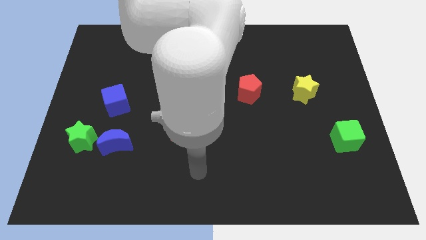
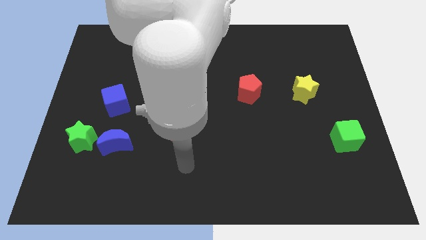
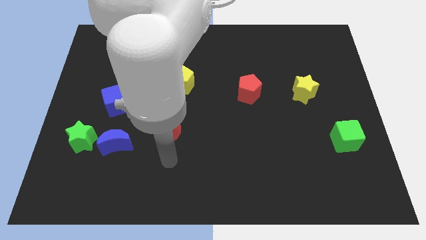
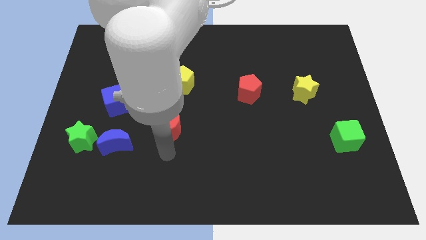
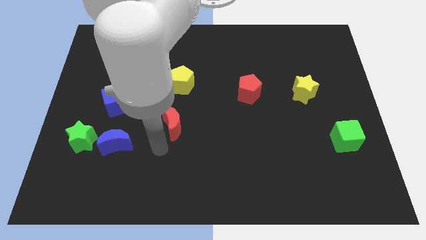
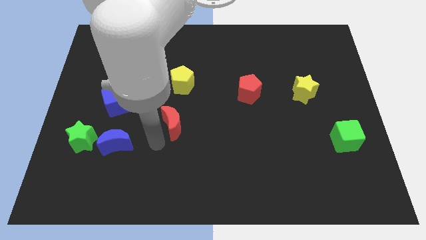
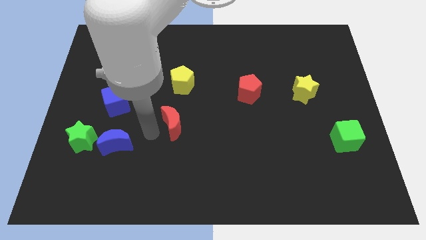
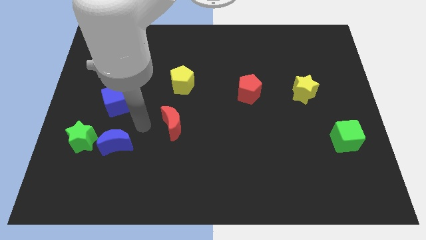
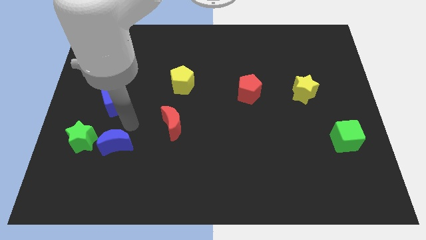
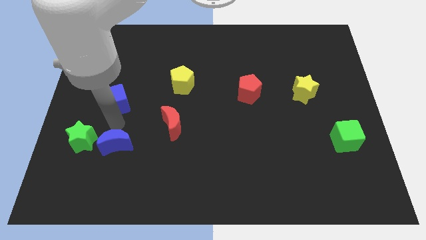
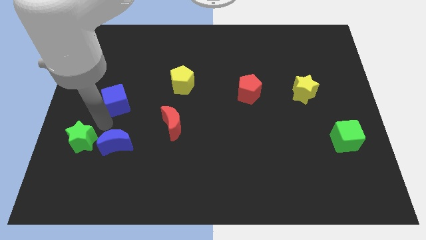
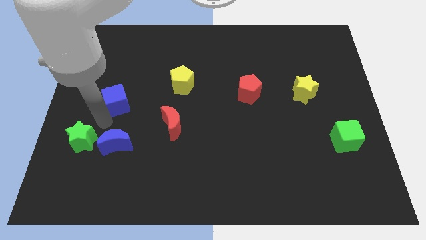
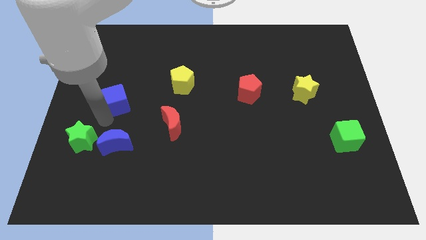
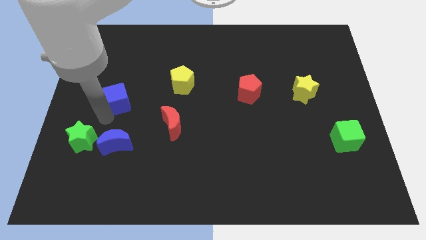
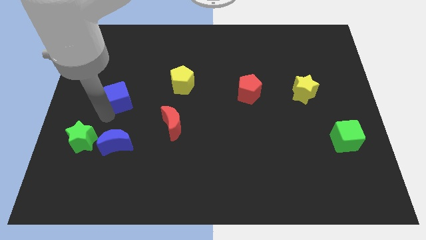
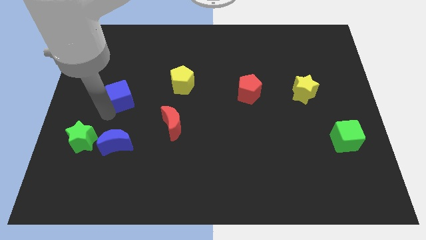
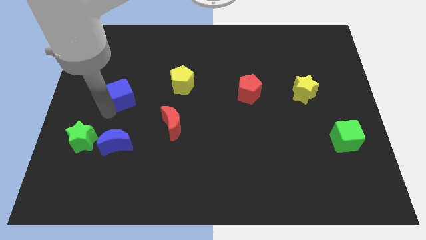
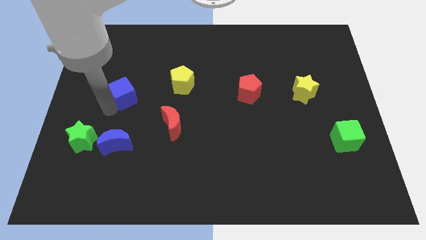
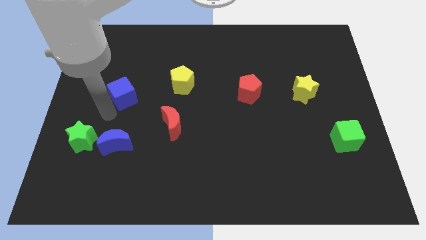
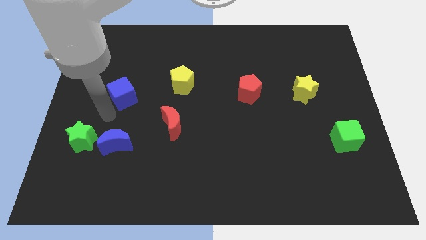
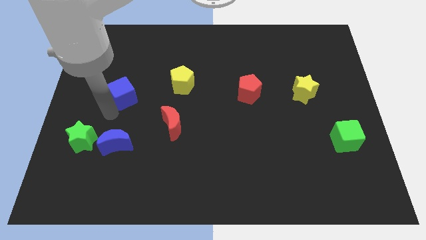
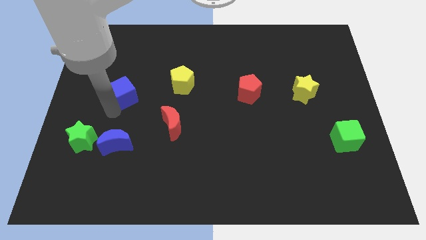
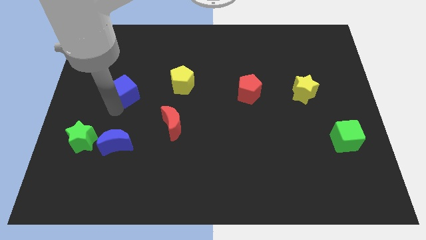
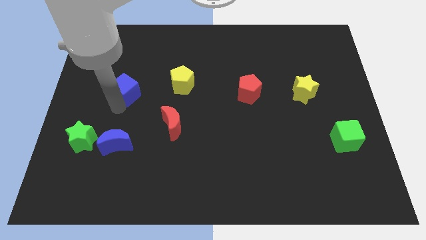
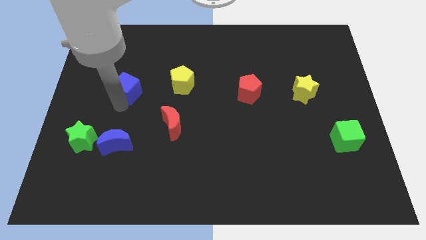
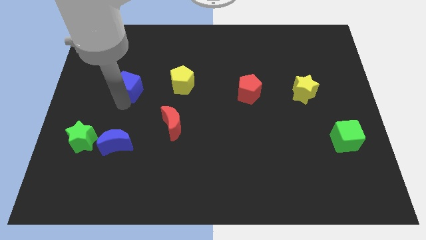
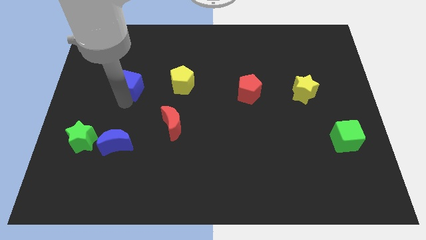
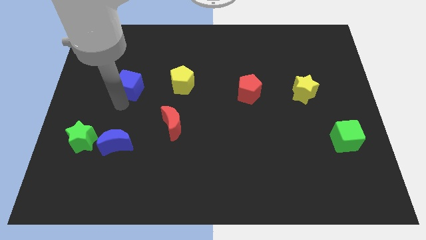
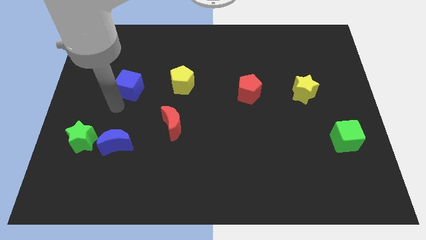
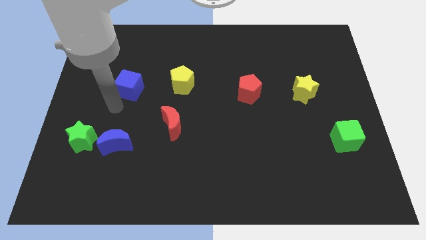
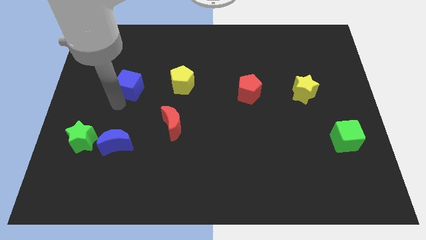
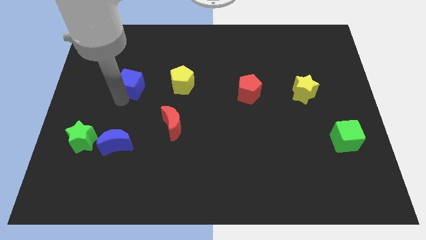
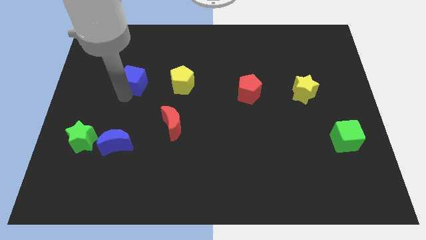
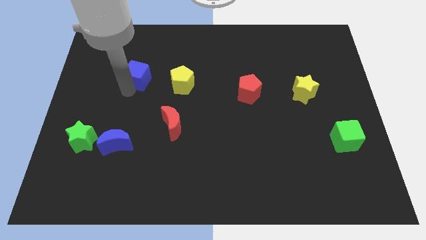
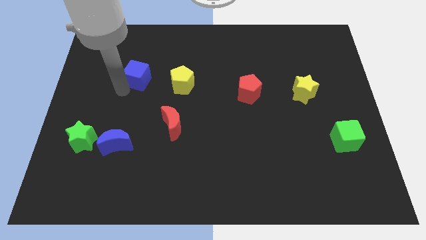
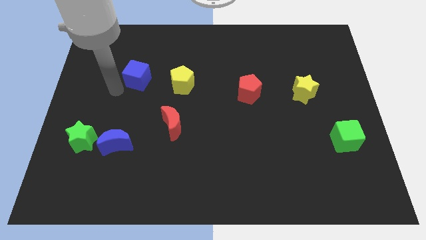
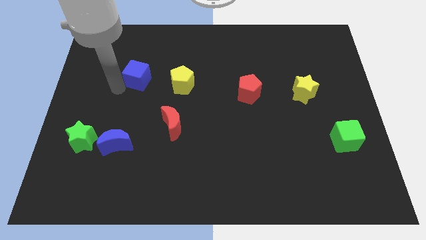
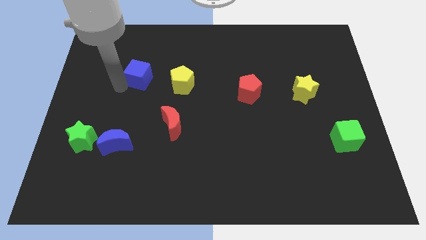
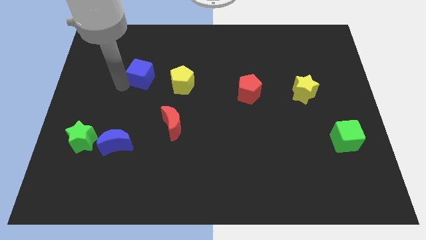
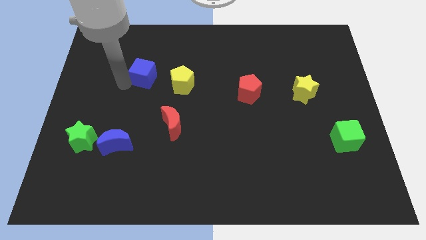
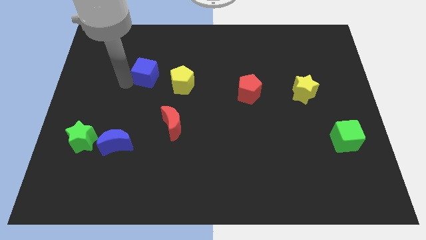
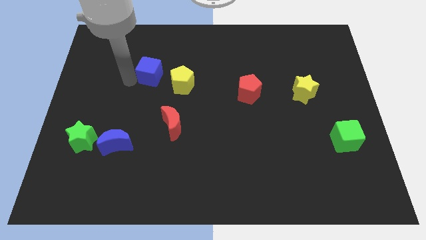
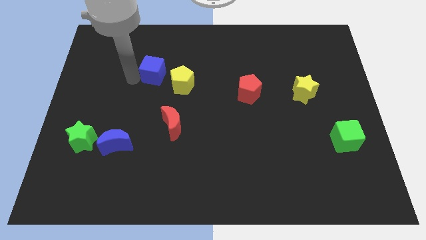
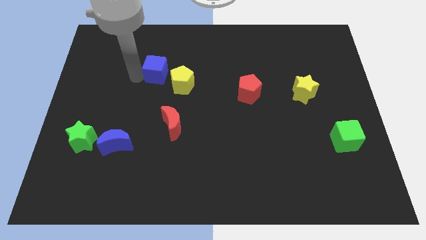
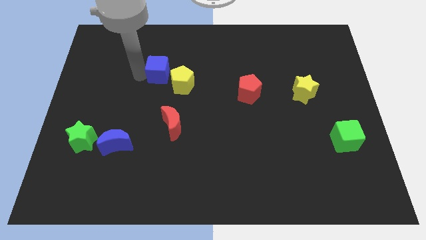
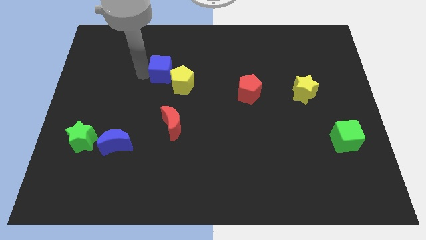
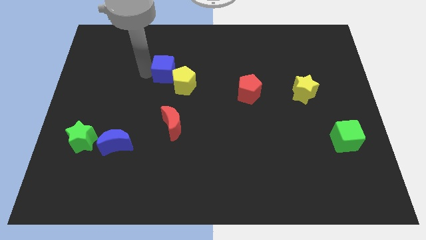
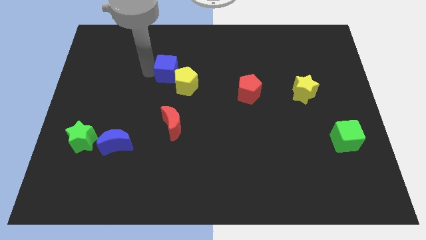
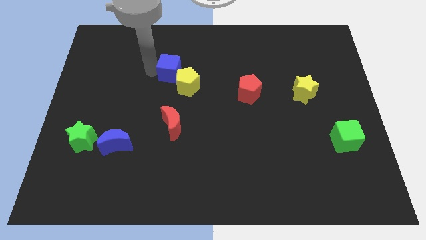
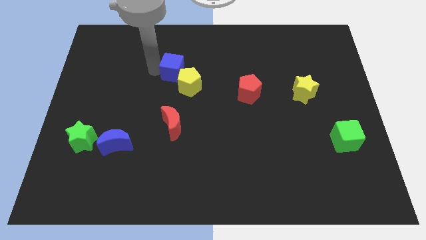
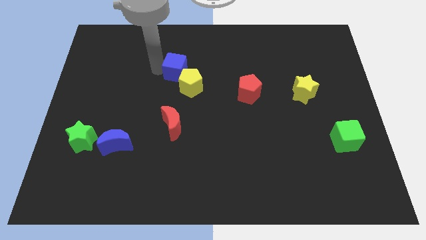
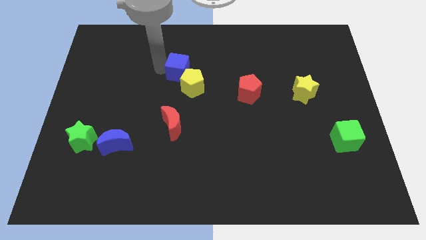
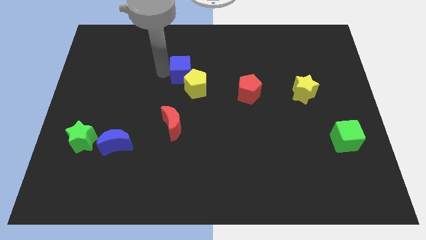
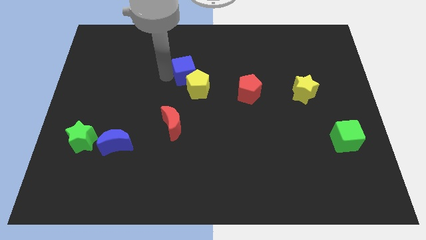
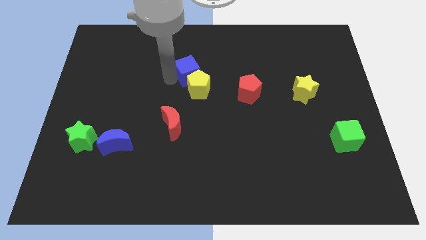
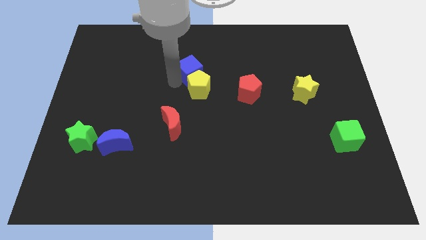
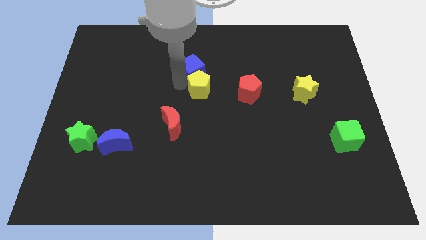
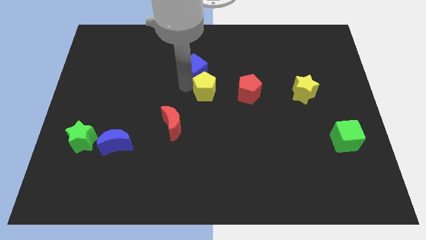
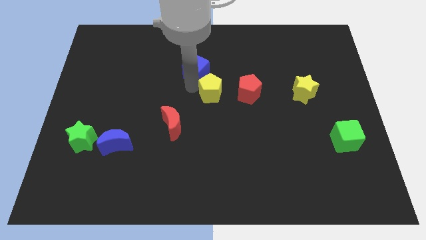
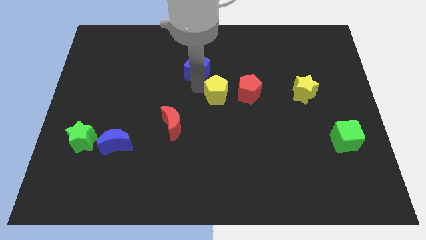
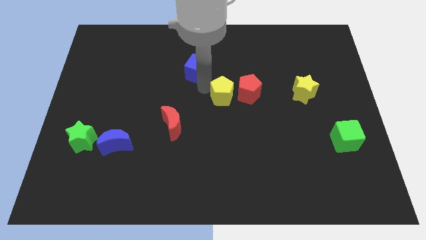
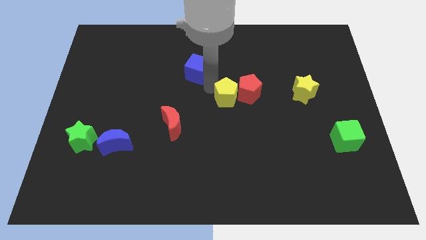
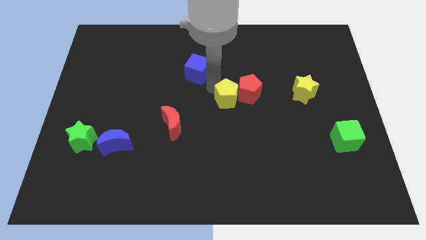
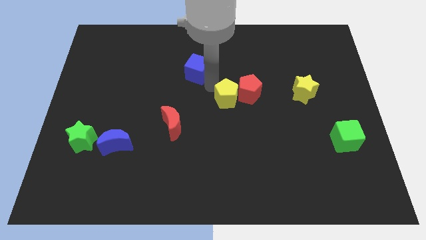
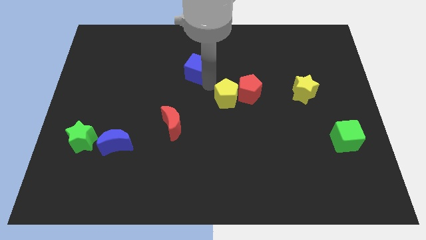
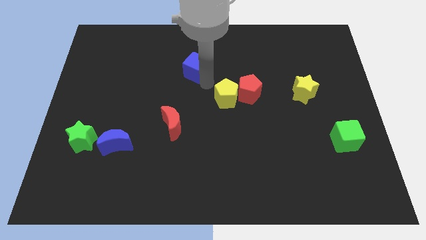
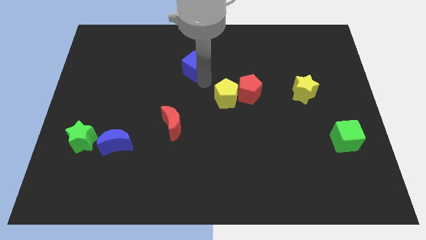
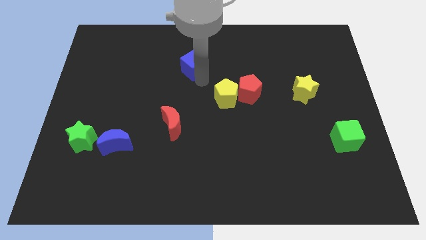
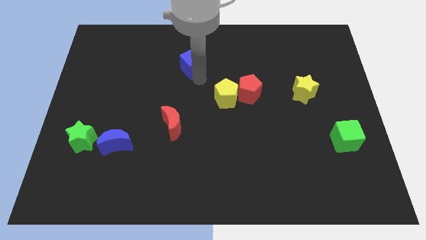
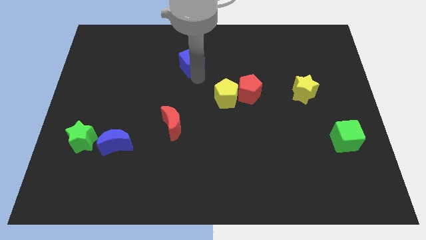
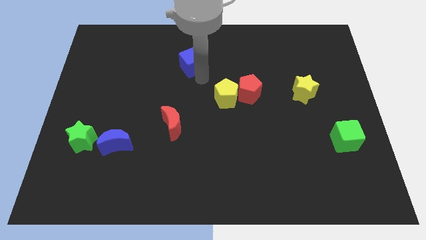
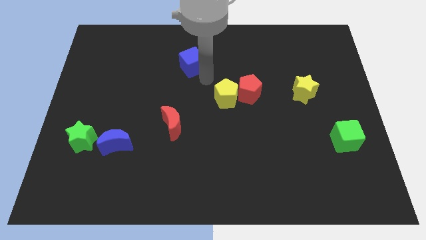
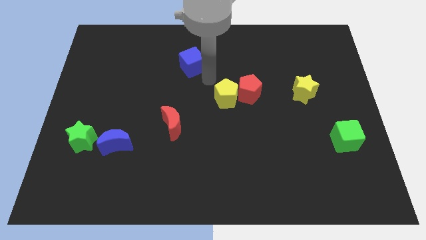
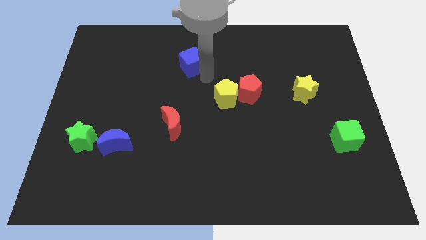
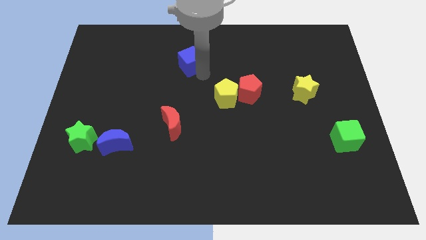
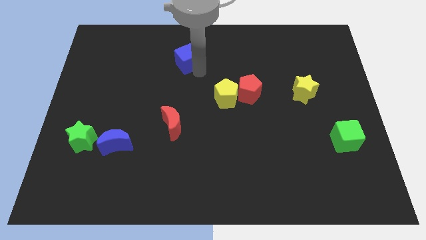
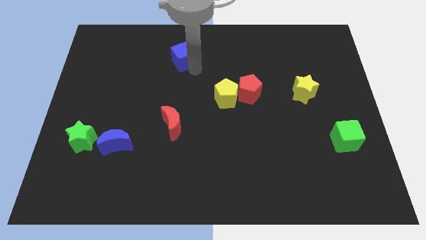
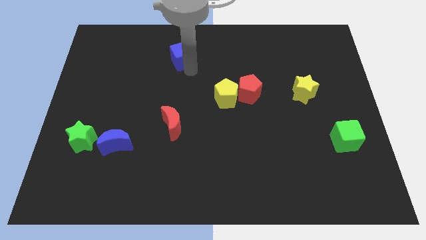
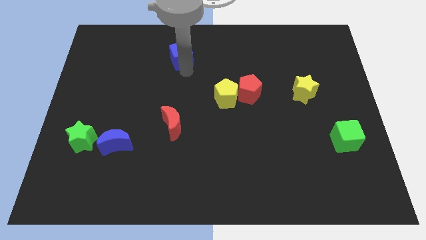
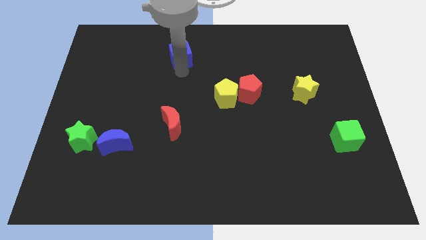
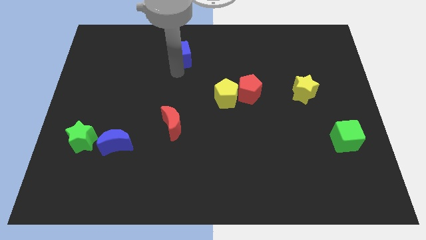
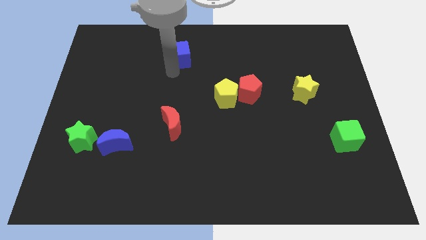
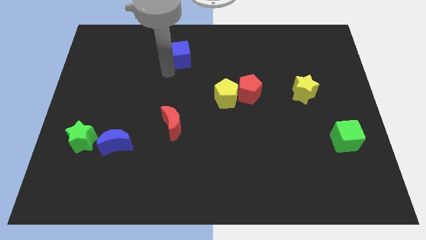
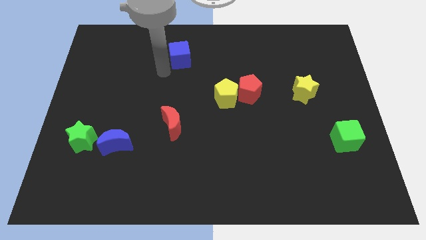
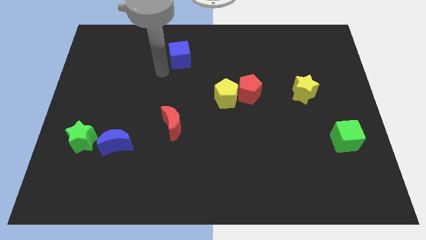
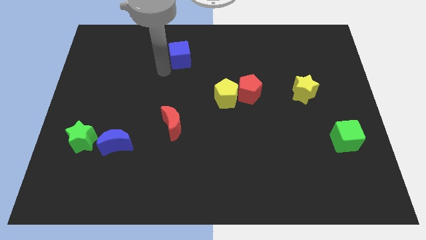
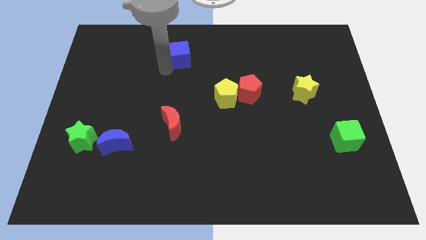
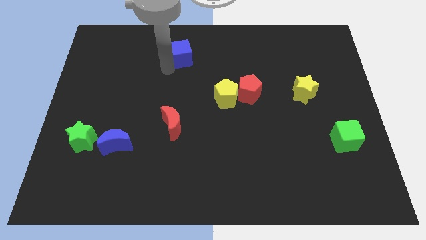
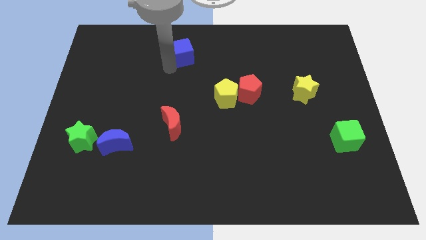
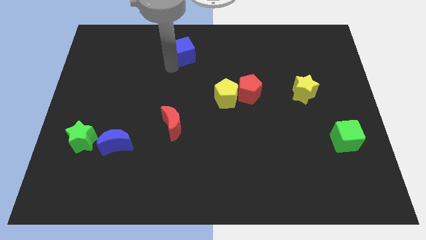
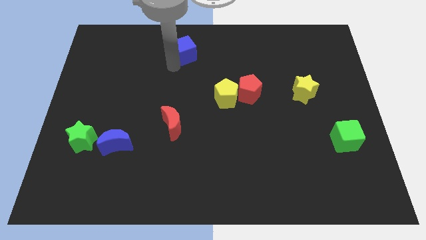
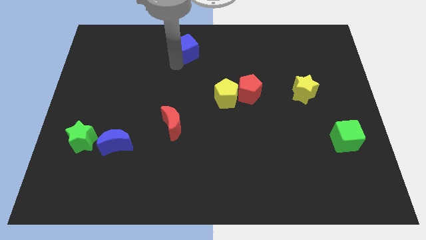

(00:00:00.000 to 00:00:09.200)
push the blue cube to the towards your base
